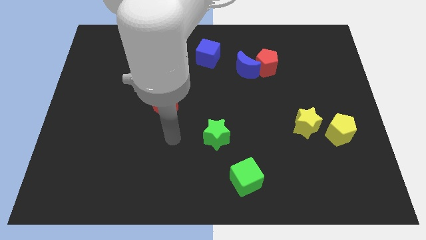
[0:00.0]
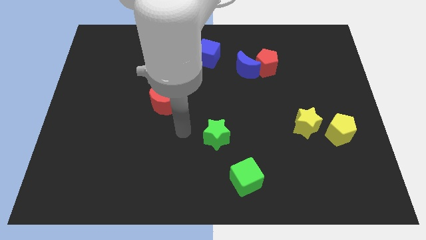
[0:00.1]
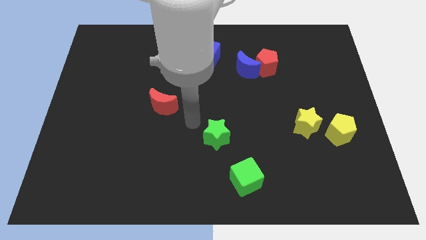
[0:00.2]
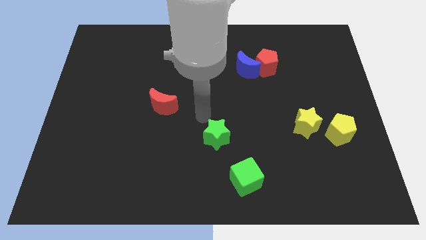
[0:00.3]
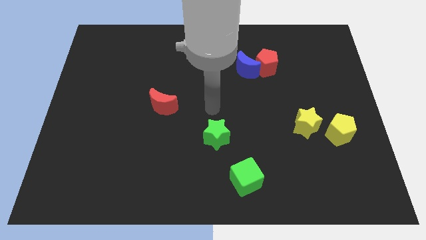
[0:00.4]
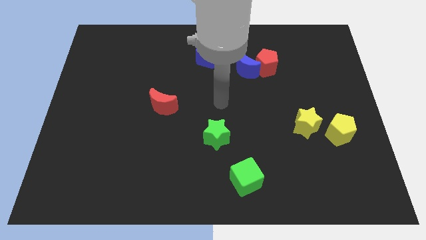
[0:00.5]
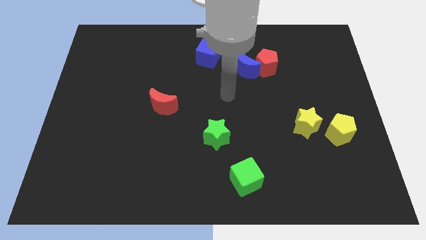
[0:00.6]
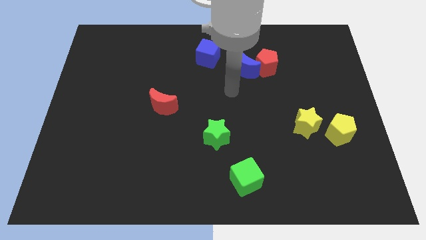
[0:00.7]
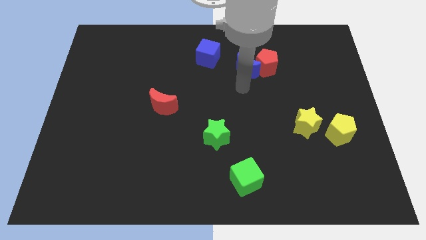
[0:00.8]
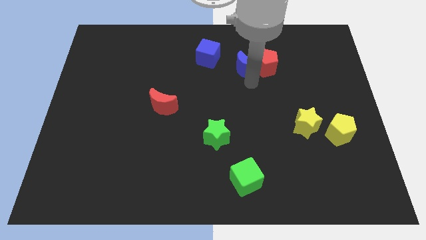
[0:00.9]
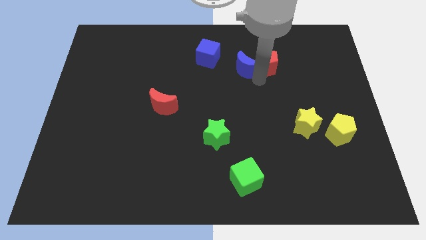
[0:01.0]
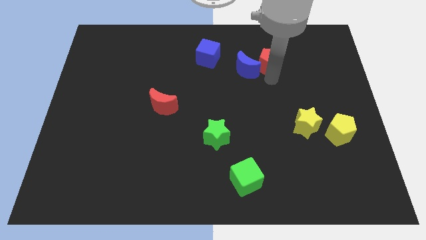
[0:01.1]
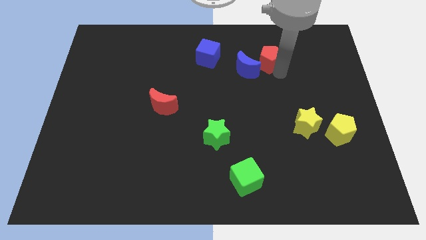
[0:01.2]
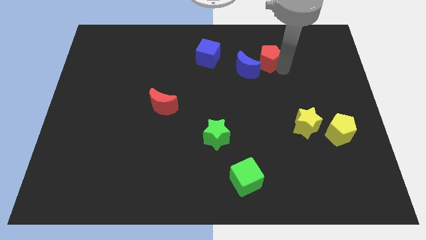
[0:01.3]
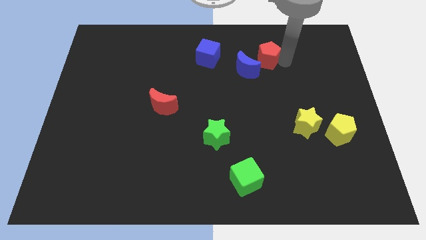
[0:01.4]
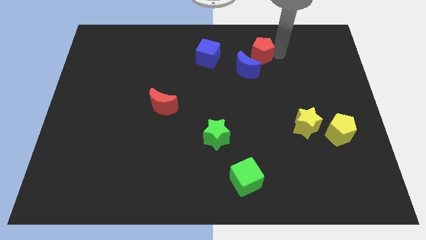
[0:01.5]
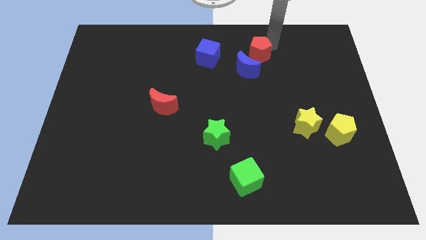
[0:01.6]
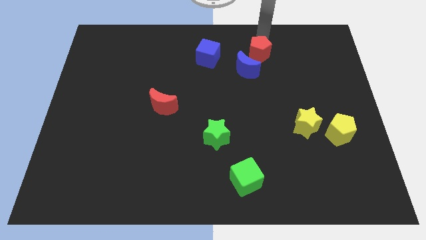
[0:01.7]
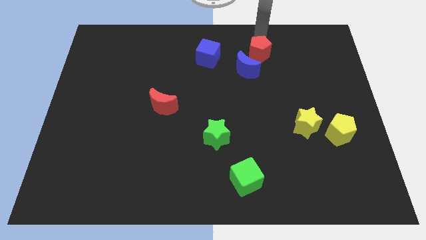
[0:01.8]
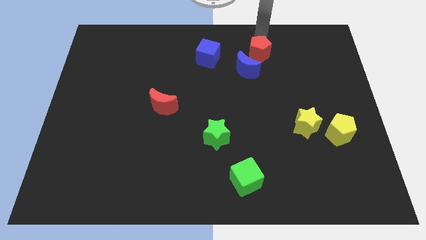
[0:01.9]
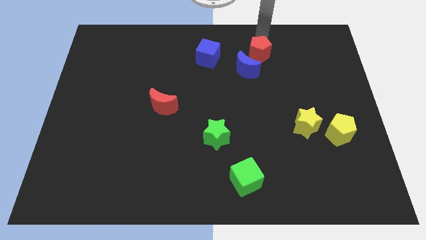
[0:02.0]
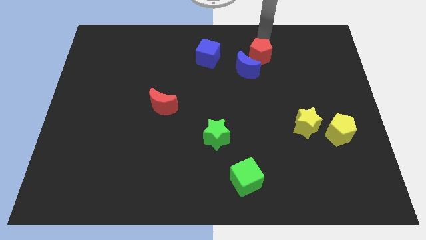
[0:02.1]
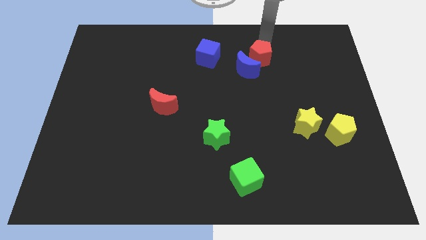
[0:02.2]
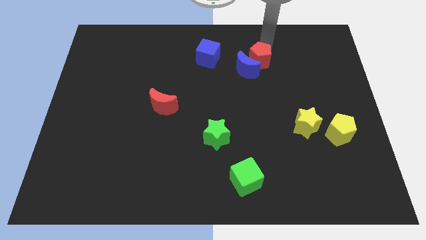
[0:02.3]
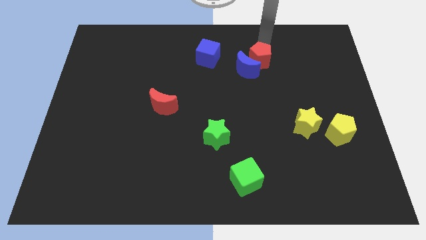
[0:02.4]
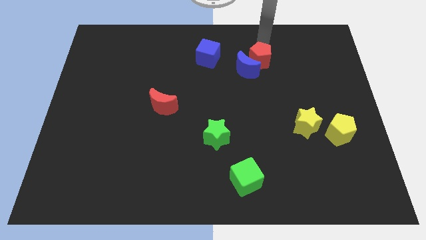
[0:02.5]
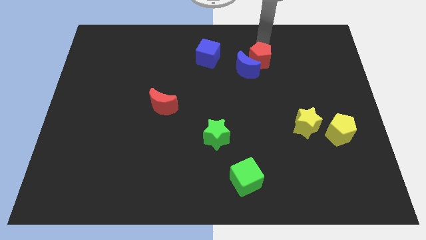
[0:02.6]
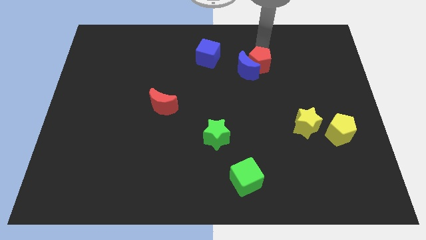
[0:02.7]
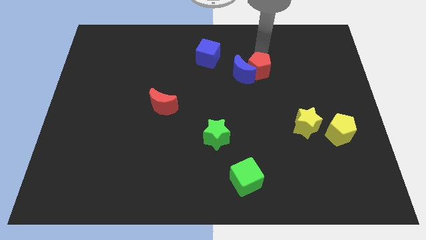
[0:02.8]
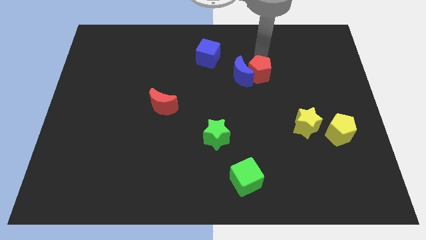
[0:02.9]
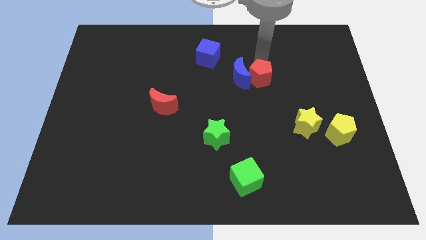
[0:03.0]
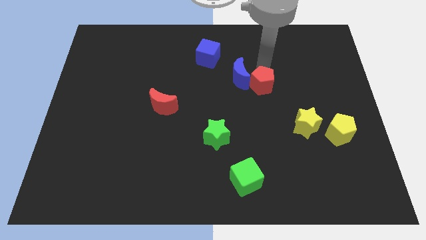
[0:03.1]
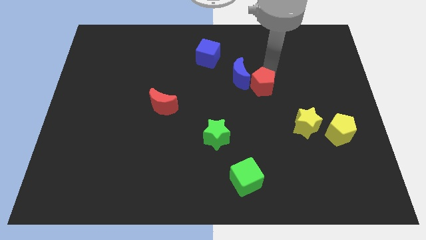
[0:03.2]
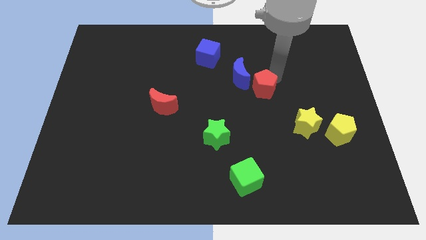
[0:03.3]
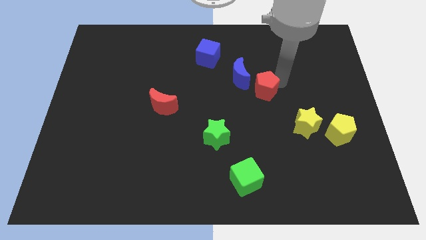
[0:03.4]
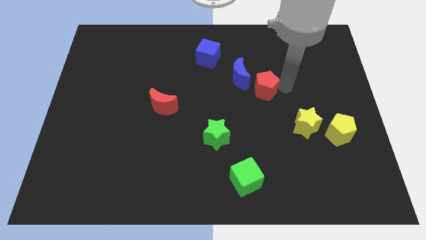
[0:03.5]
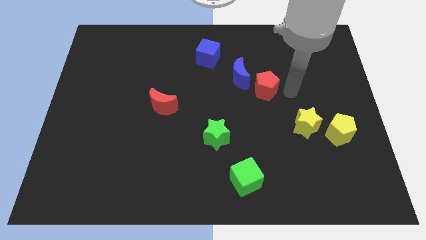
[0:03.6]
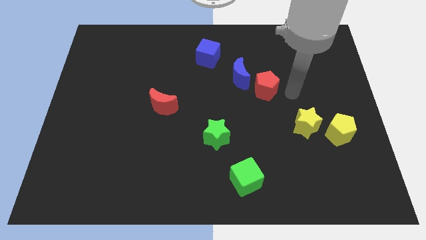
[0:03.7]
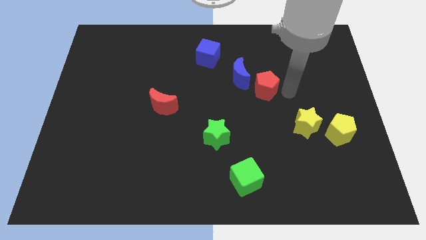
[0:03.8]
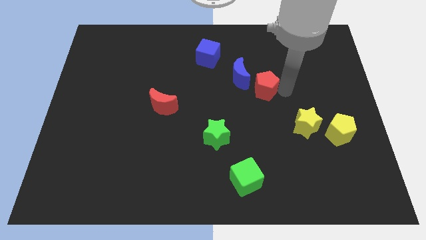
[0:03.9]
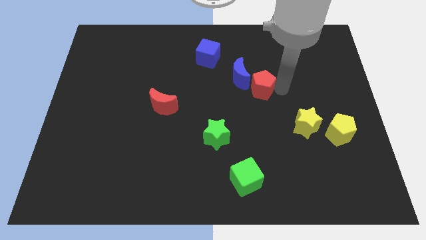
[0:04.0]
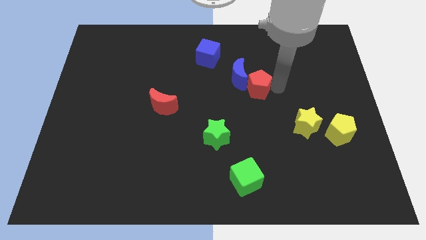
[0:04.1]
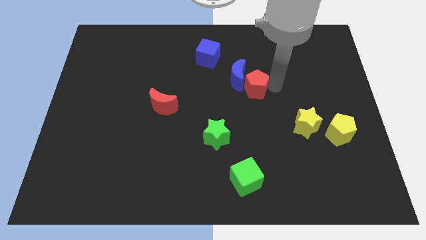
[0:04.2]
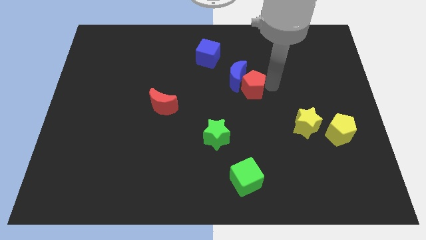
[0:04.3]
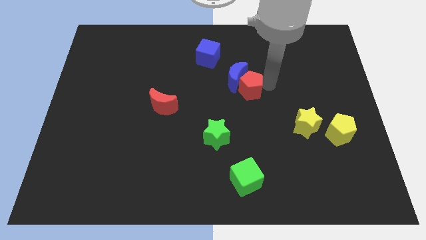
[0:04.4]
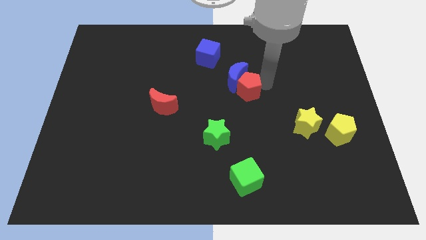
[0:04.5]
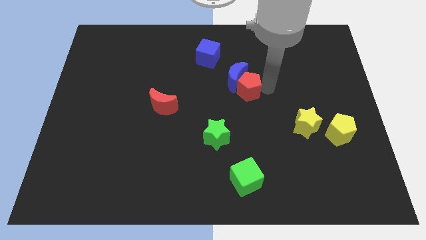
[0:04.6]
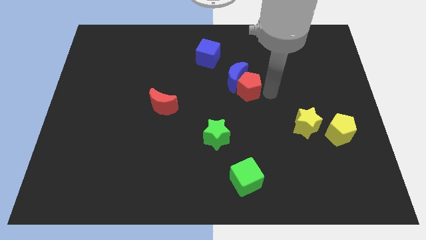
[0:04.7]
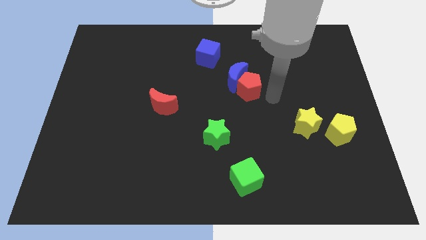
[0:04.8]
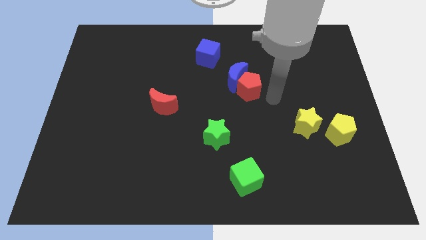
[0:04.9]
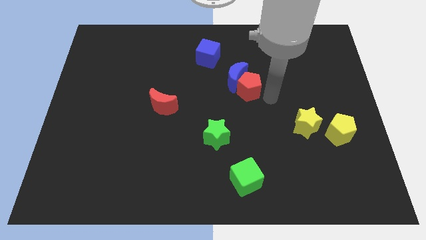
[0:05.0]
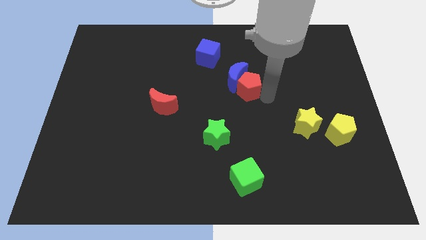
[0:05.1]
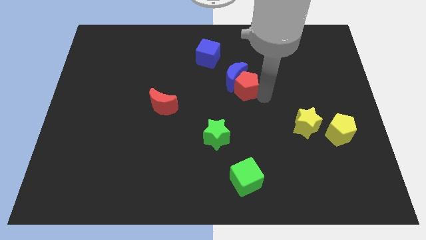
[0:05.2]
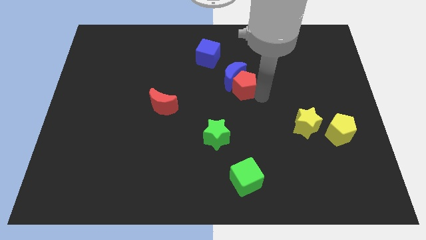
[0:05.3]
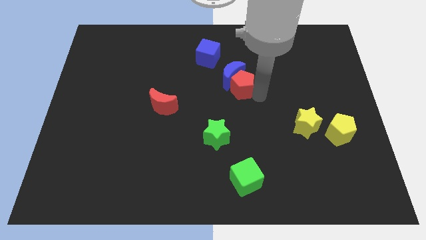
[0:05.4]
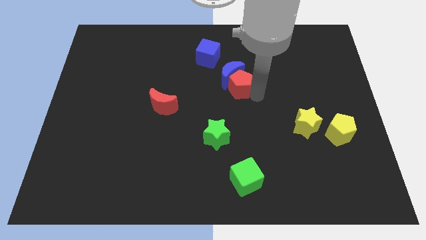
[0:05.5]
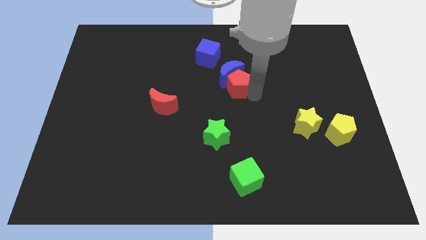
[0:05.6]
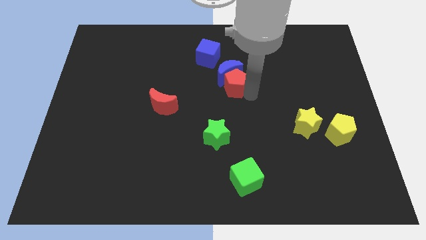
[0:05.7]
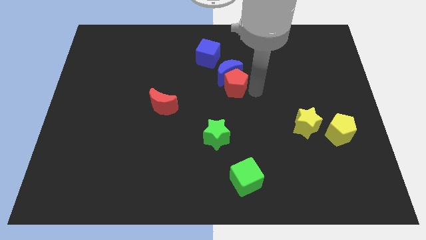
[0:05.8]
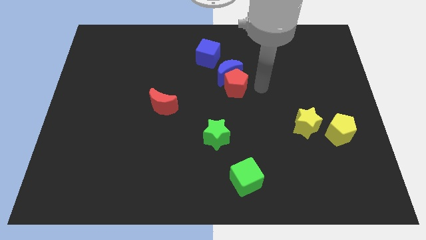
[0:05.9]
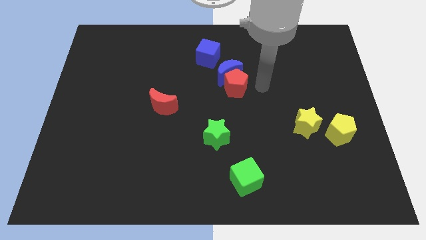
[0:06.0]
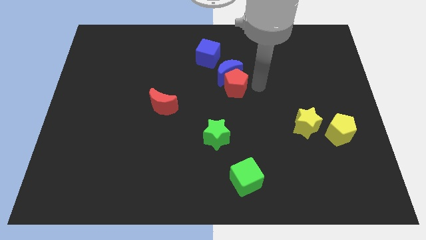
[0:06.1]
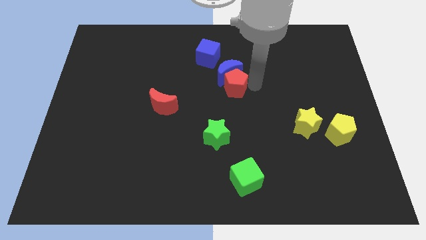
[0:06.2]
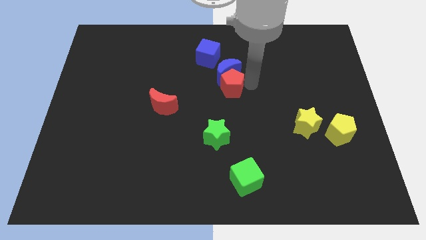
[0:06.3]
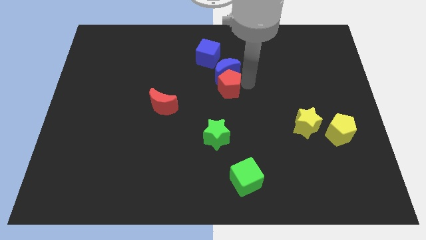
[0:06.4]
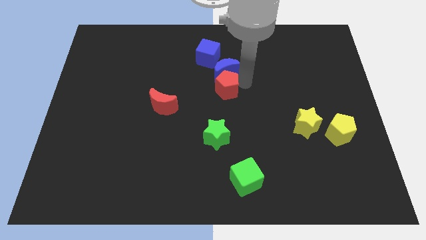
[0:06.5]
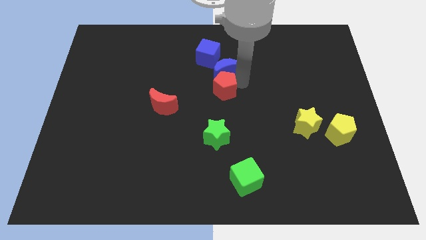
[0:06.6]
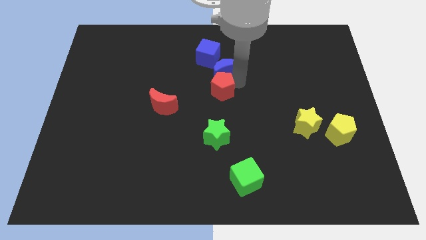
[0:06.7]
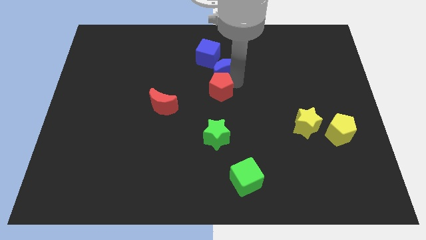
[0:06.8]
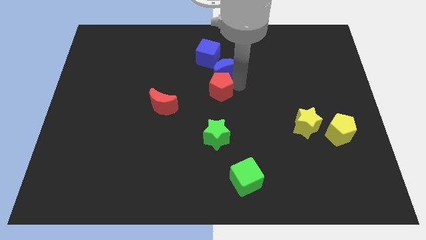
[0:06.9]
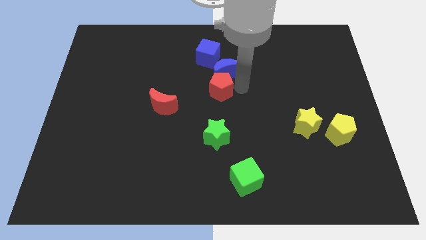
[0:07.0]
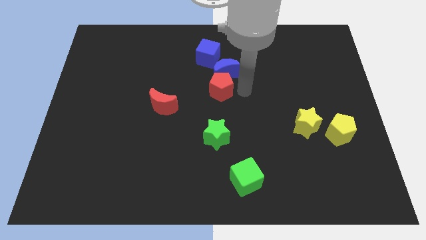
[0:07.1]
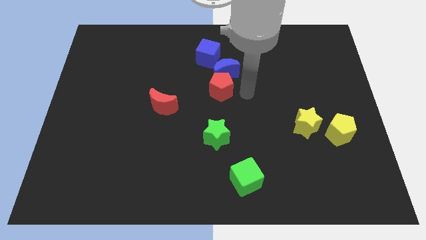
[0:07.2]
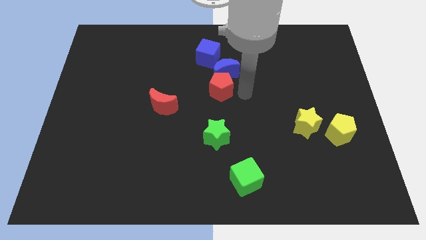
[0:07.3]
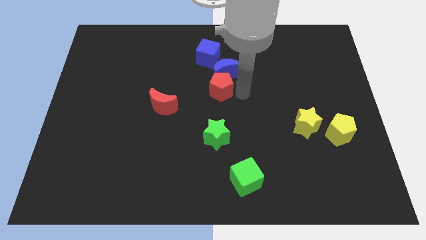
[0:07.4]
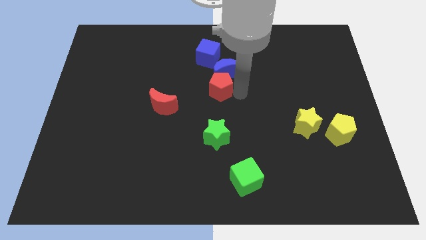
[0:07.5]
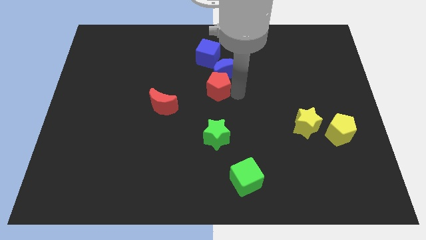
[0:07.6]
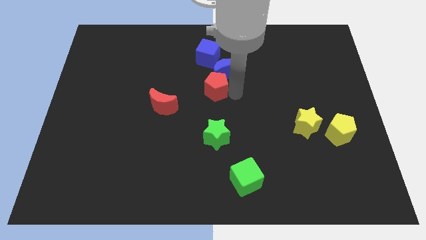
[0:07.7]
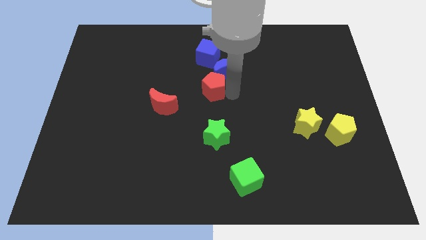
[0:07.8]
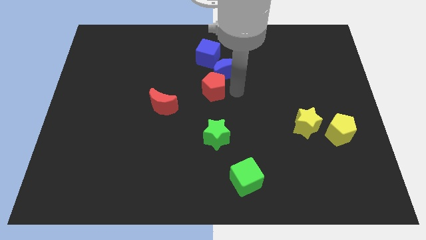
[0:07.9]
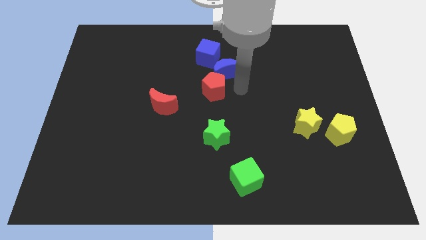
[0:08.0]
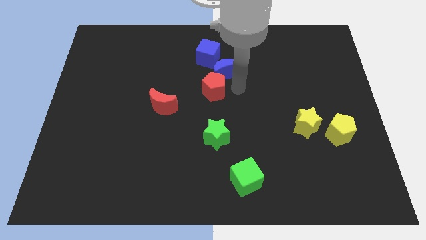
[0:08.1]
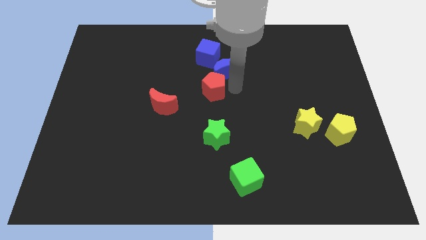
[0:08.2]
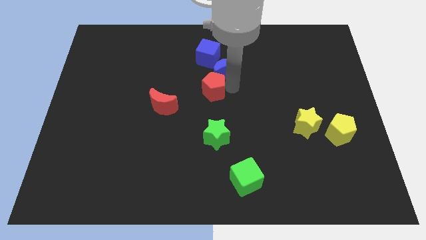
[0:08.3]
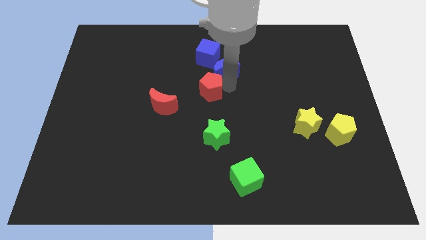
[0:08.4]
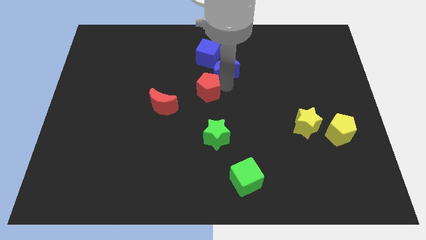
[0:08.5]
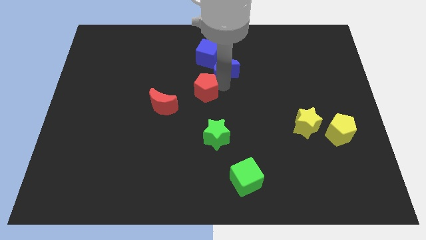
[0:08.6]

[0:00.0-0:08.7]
move the red pentagon to the top right of the red moon
